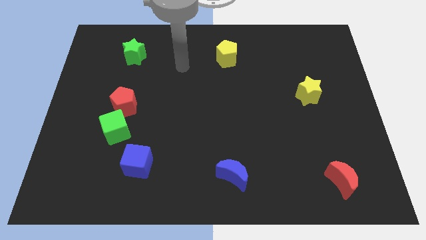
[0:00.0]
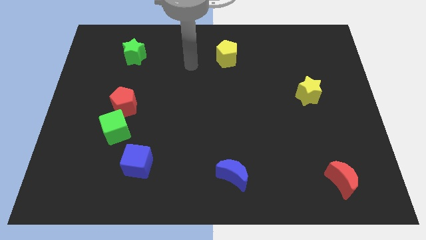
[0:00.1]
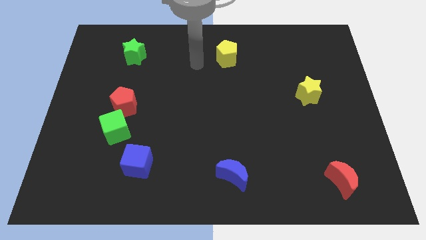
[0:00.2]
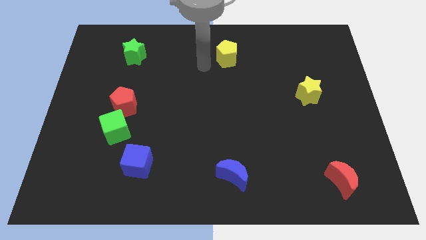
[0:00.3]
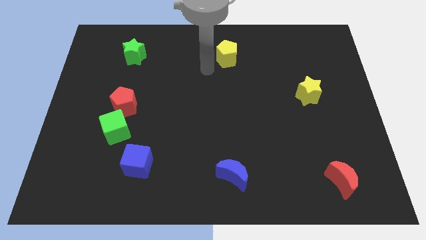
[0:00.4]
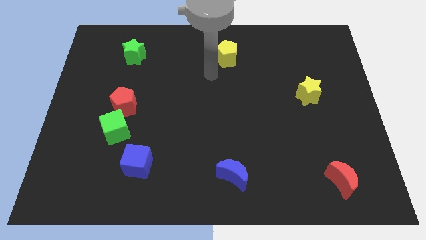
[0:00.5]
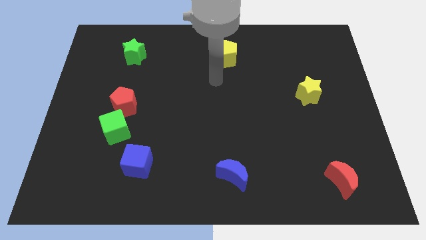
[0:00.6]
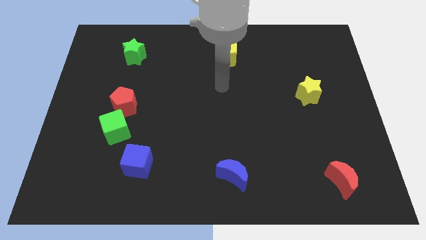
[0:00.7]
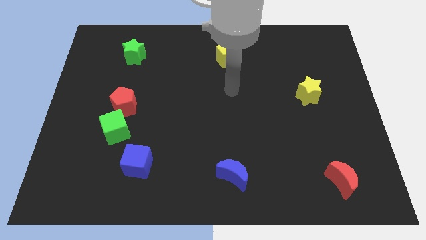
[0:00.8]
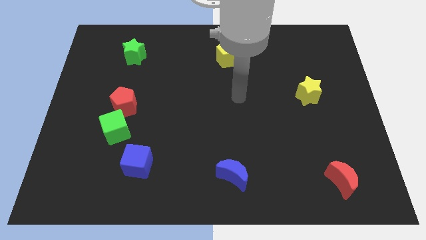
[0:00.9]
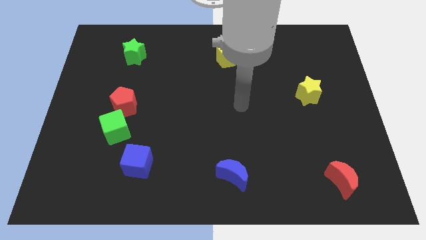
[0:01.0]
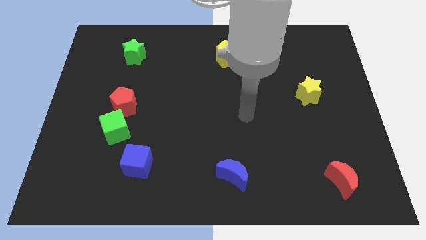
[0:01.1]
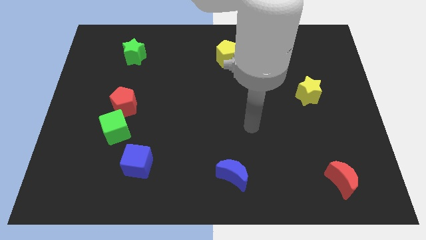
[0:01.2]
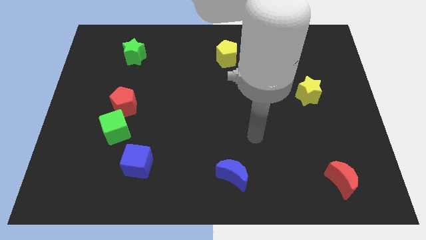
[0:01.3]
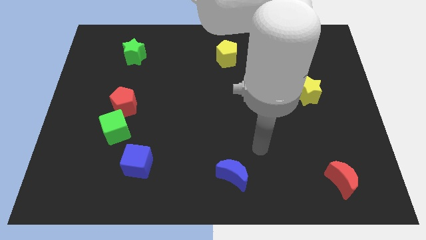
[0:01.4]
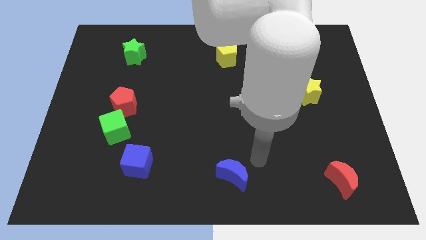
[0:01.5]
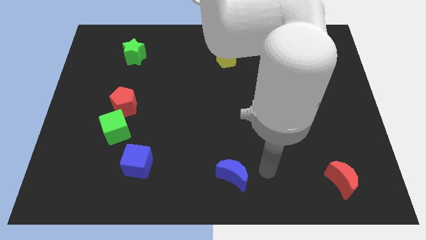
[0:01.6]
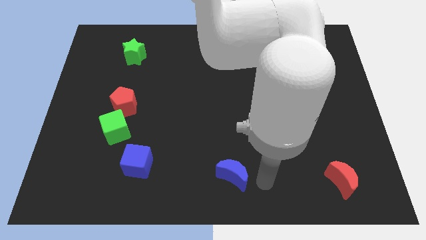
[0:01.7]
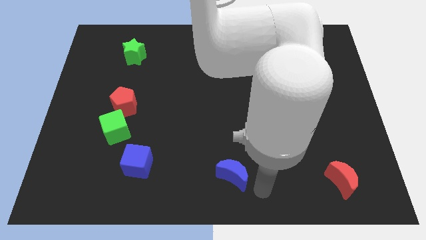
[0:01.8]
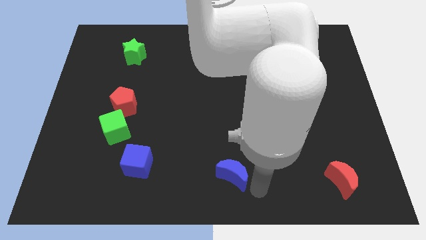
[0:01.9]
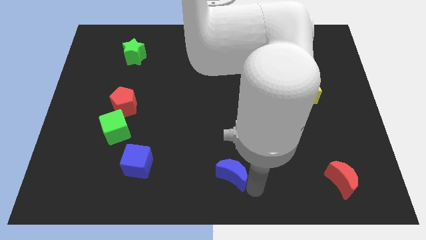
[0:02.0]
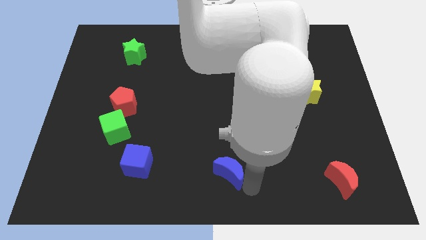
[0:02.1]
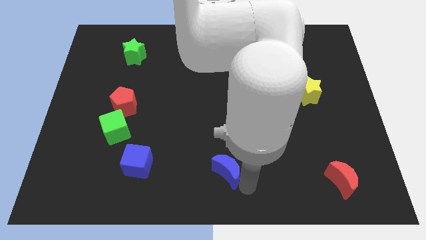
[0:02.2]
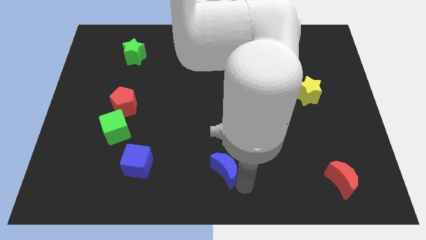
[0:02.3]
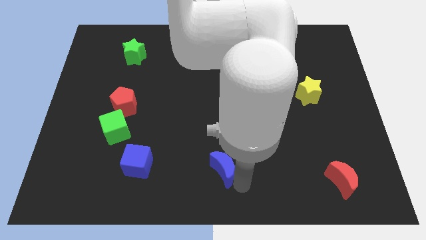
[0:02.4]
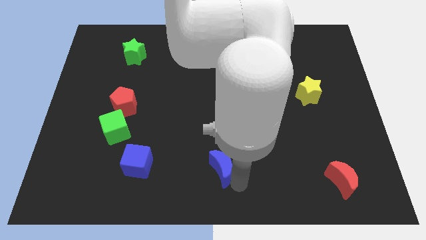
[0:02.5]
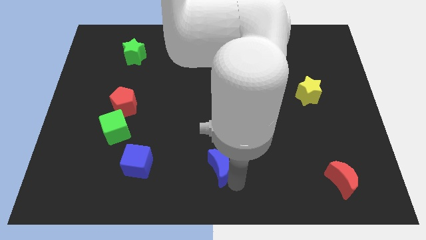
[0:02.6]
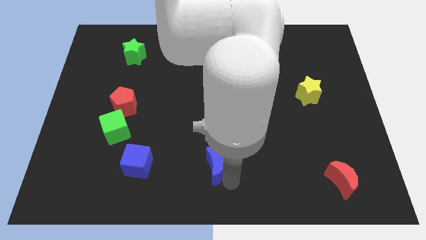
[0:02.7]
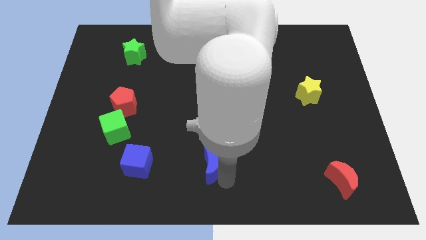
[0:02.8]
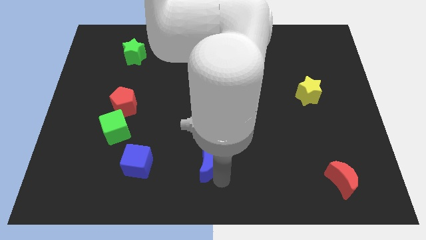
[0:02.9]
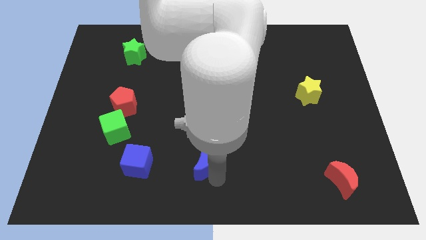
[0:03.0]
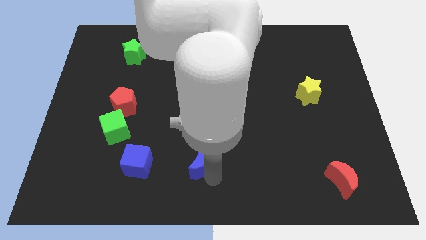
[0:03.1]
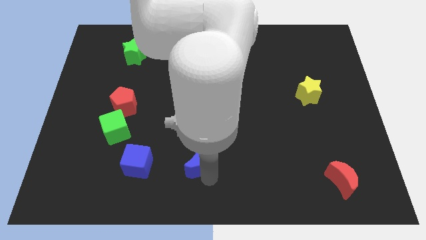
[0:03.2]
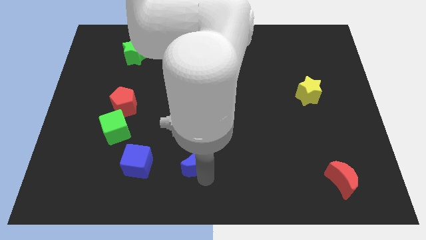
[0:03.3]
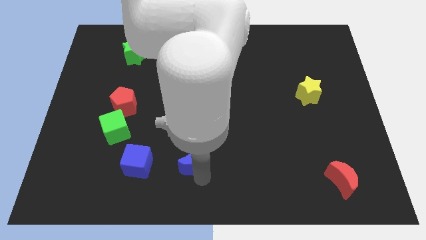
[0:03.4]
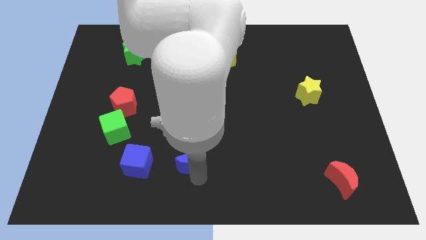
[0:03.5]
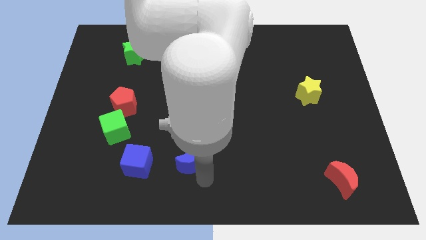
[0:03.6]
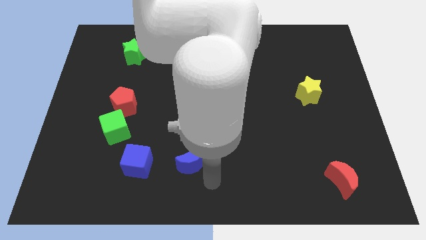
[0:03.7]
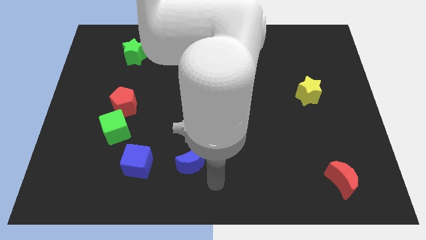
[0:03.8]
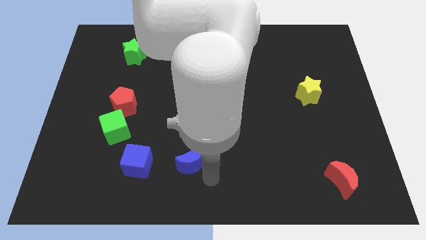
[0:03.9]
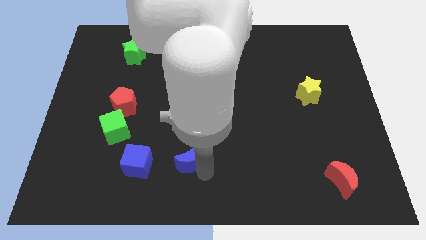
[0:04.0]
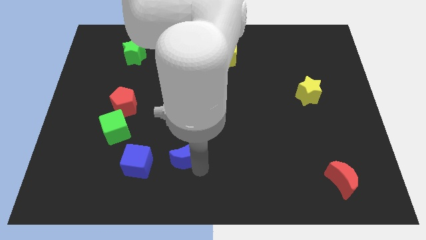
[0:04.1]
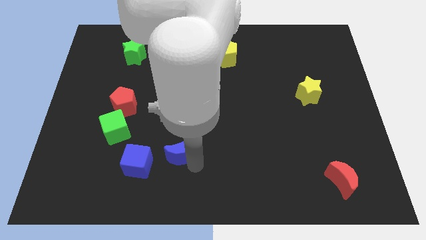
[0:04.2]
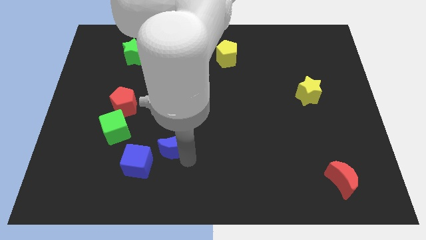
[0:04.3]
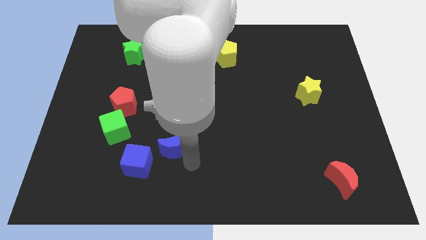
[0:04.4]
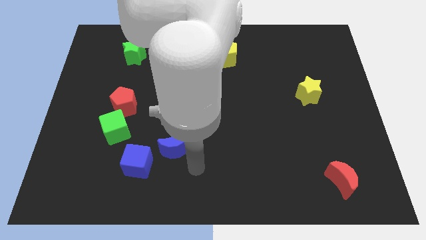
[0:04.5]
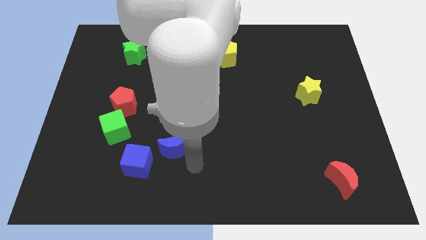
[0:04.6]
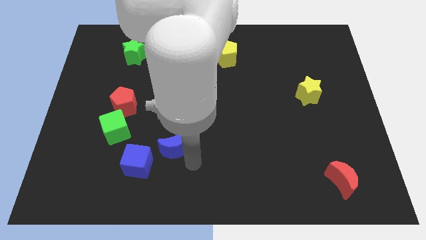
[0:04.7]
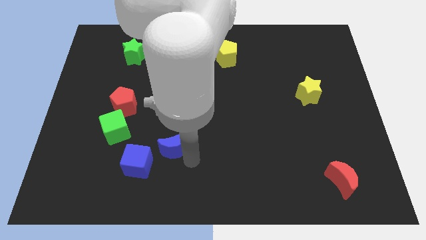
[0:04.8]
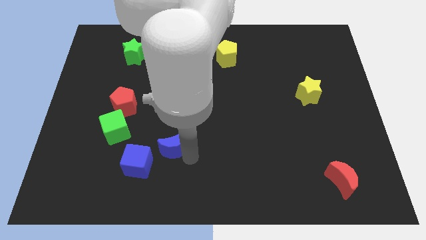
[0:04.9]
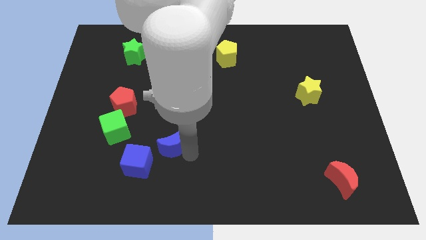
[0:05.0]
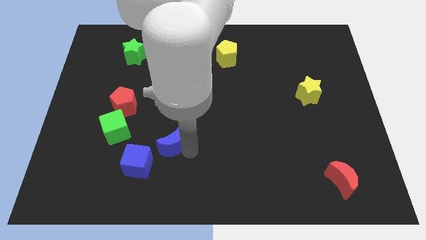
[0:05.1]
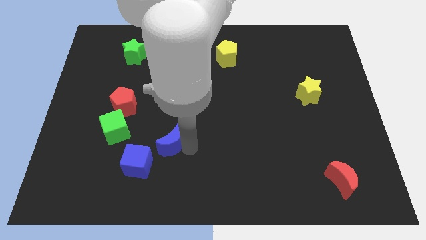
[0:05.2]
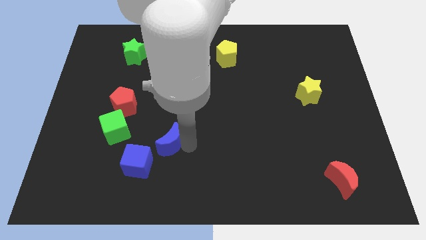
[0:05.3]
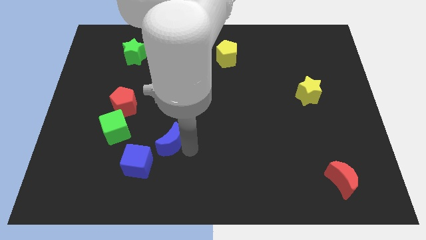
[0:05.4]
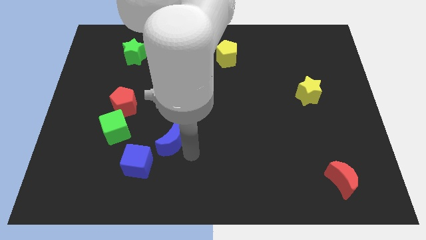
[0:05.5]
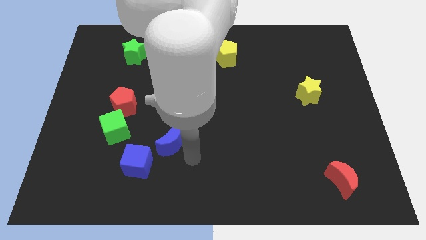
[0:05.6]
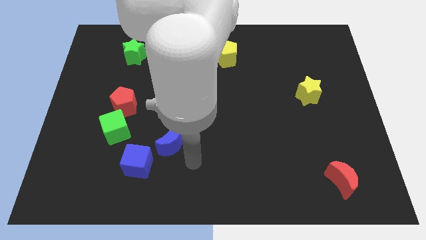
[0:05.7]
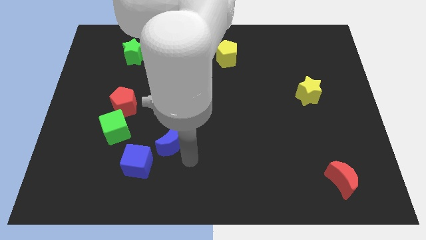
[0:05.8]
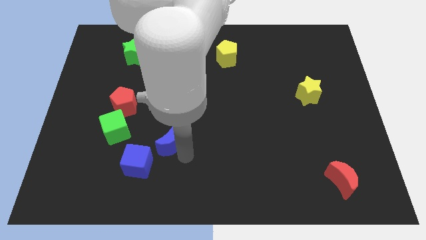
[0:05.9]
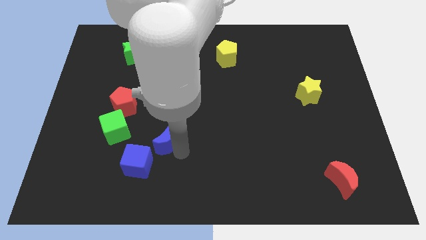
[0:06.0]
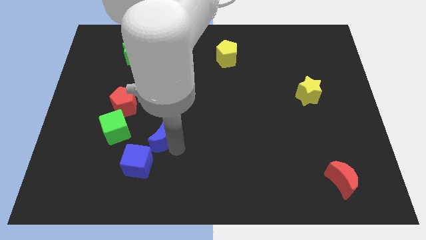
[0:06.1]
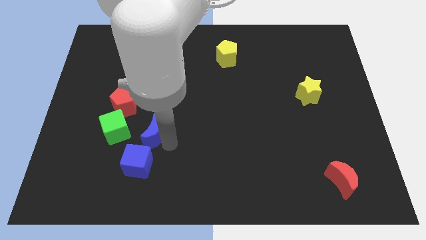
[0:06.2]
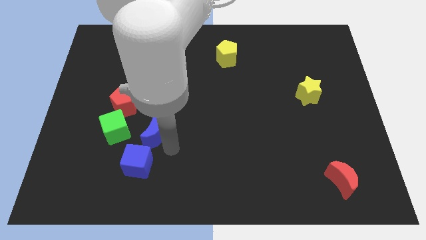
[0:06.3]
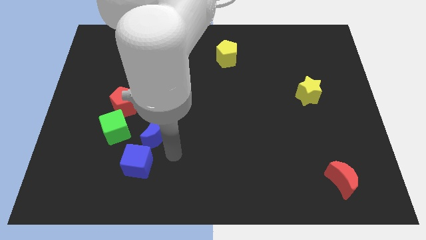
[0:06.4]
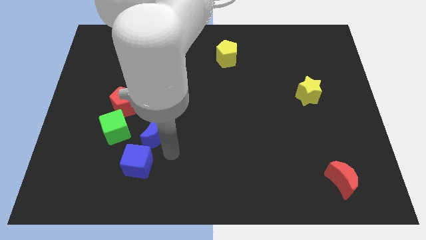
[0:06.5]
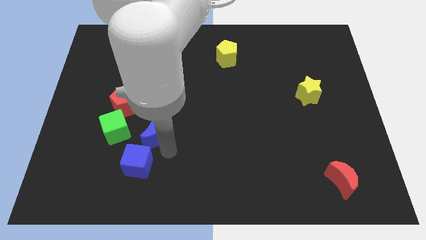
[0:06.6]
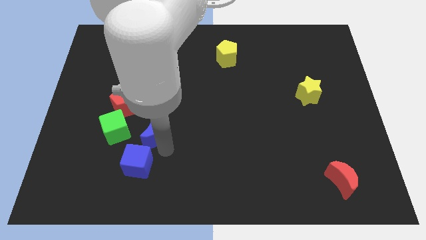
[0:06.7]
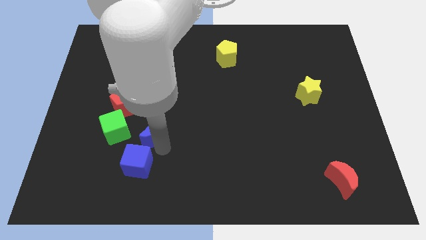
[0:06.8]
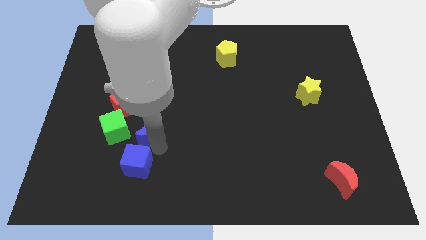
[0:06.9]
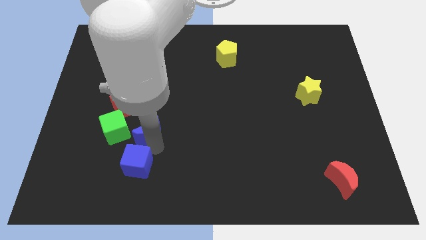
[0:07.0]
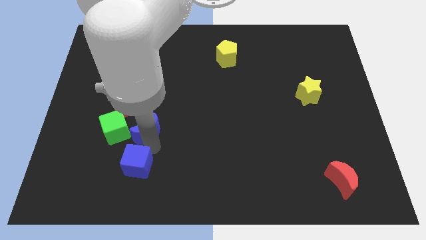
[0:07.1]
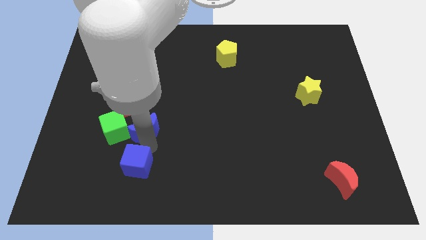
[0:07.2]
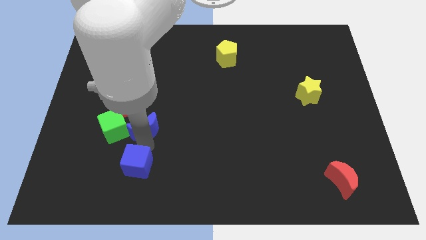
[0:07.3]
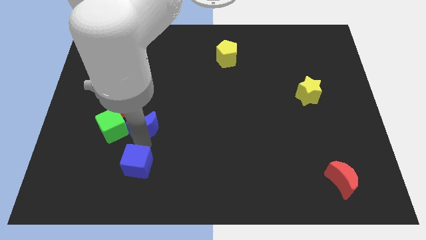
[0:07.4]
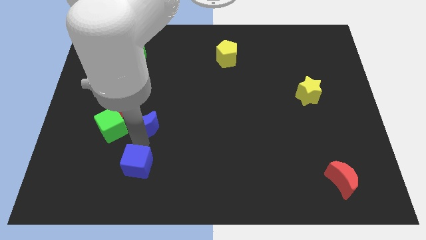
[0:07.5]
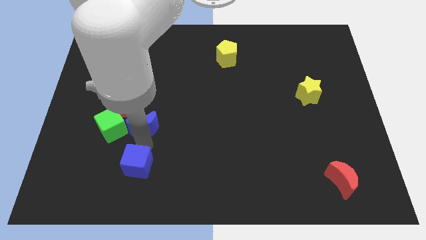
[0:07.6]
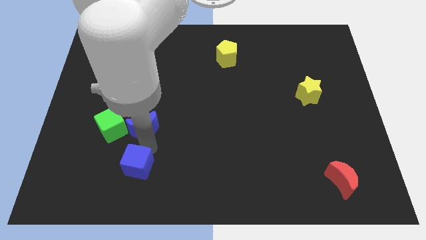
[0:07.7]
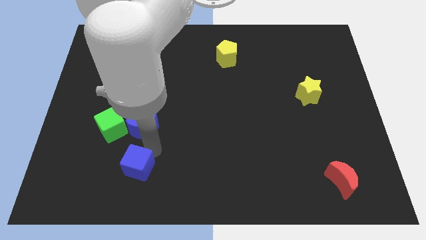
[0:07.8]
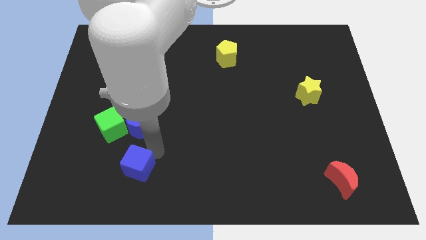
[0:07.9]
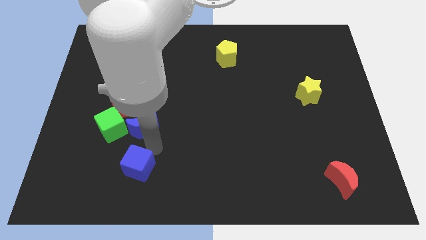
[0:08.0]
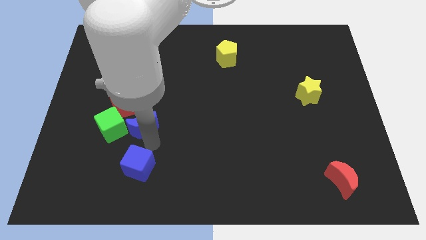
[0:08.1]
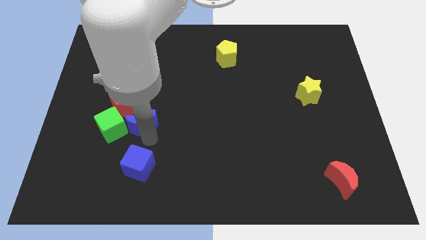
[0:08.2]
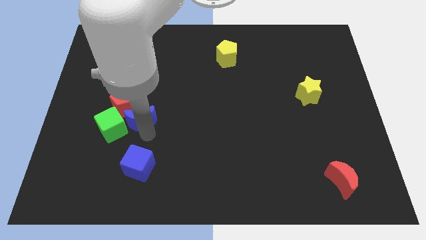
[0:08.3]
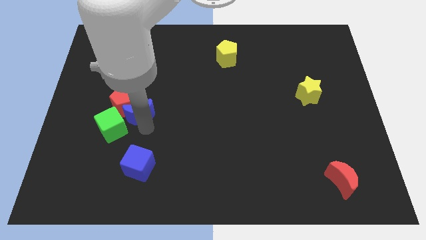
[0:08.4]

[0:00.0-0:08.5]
slide the blue moon next to the red pentagon
